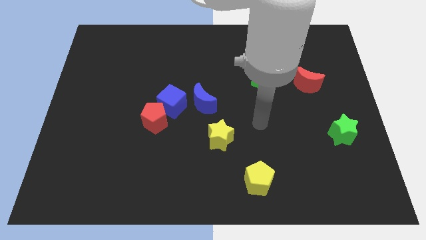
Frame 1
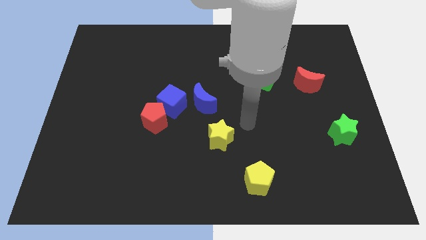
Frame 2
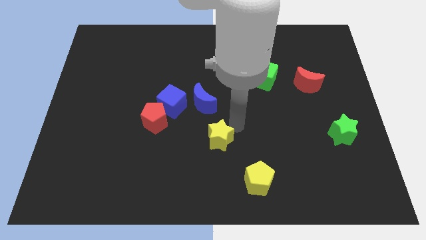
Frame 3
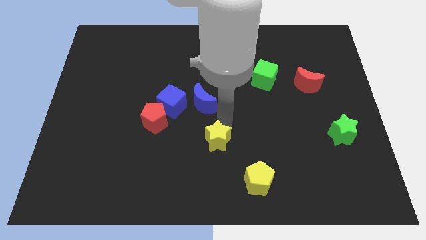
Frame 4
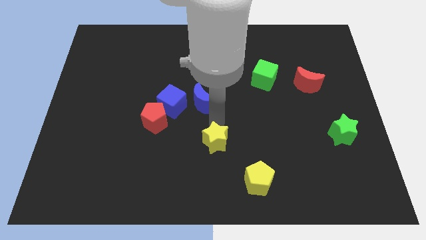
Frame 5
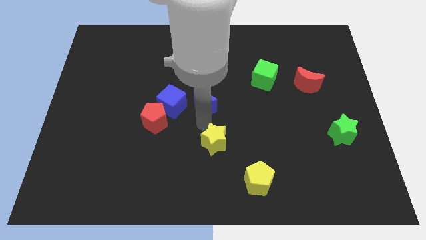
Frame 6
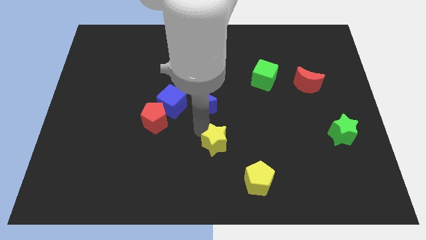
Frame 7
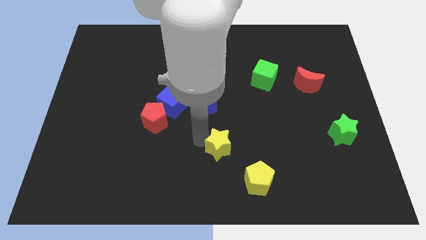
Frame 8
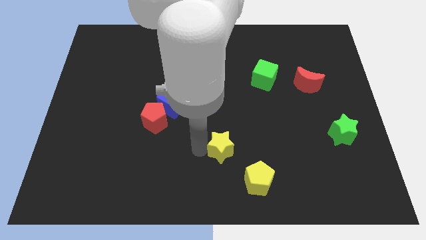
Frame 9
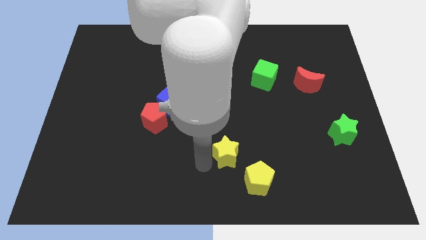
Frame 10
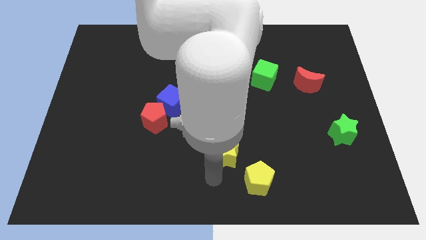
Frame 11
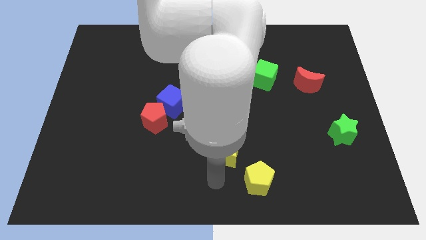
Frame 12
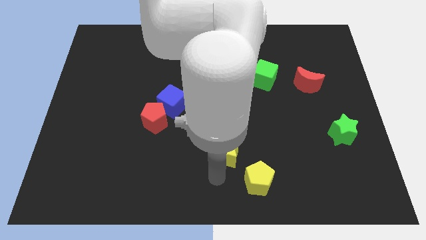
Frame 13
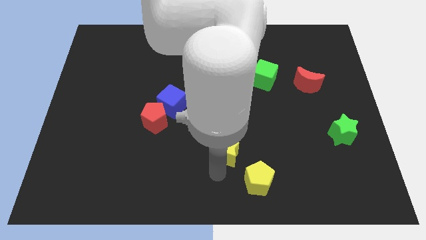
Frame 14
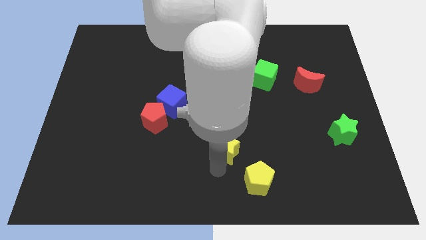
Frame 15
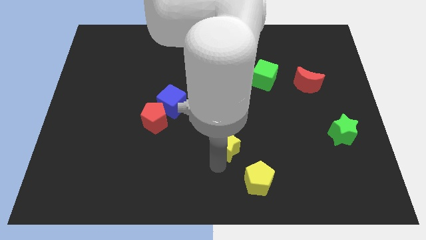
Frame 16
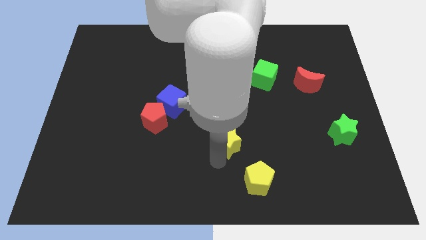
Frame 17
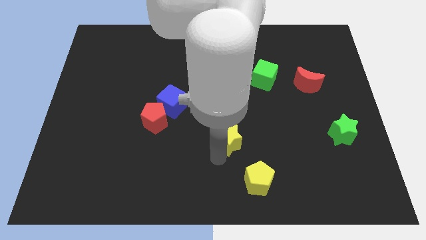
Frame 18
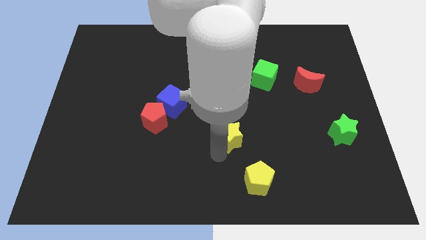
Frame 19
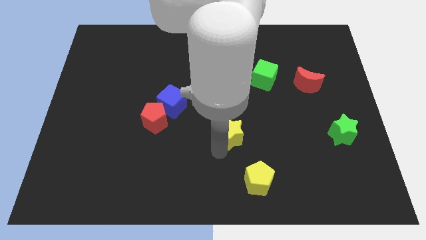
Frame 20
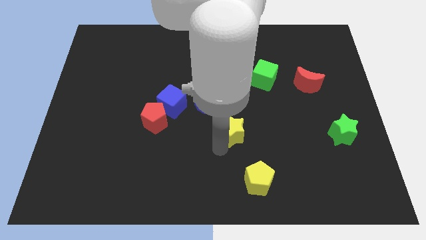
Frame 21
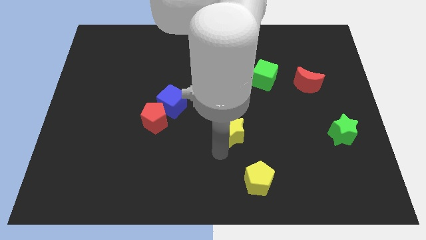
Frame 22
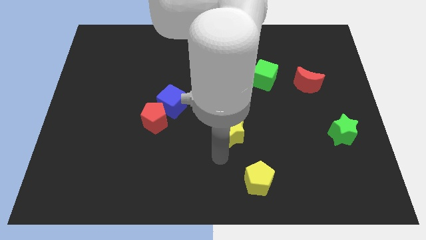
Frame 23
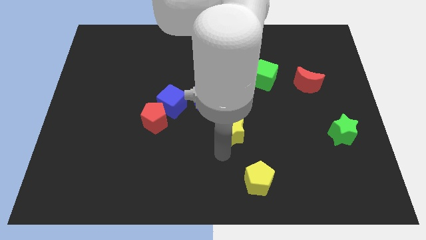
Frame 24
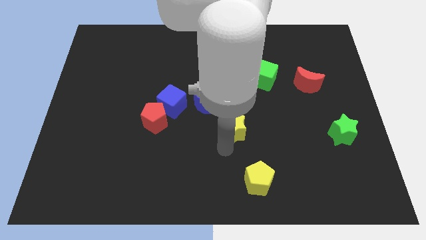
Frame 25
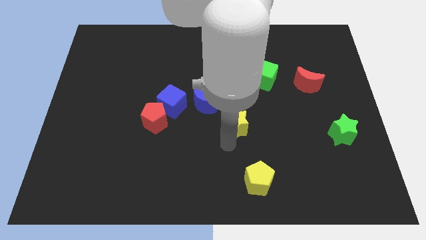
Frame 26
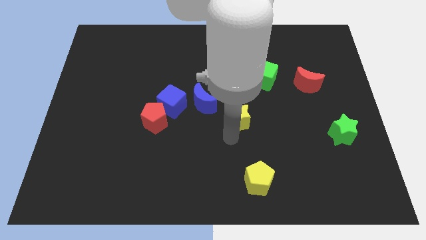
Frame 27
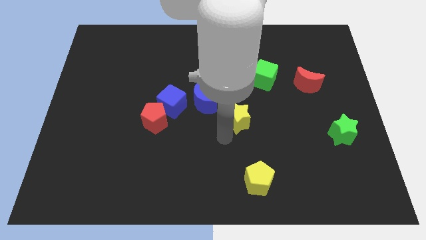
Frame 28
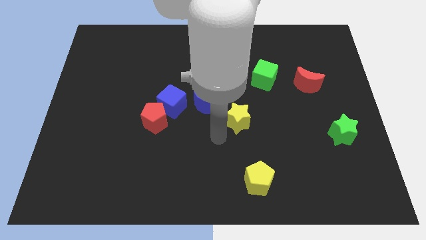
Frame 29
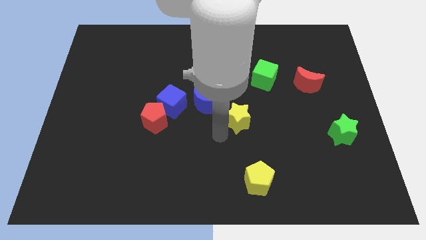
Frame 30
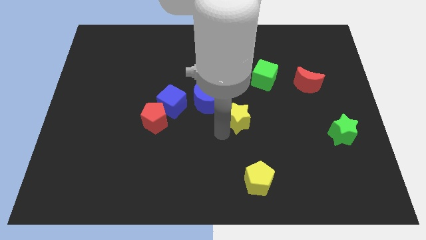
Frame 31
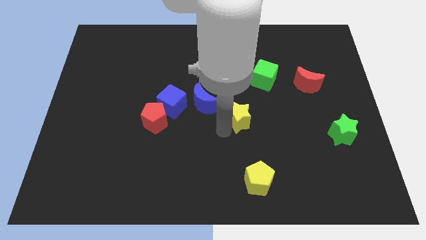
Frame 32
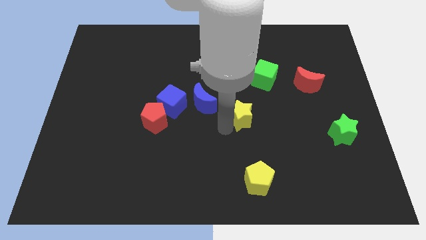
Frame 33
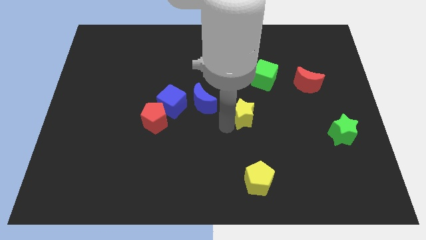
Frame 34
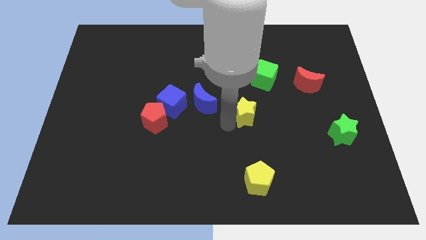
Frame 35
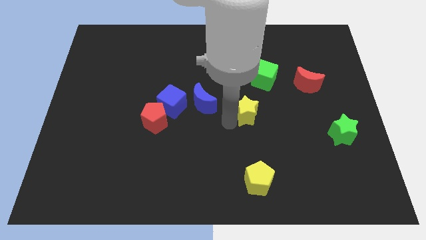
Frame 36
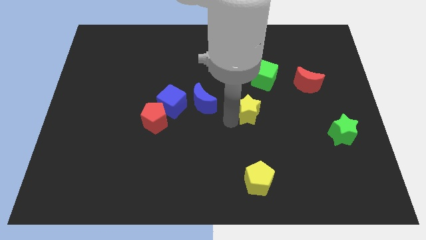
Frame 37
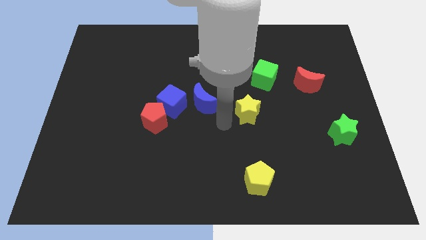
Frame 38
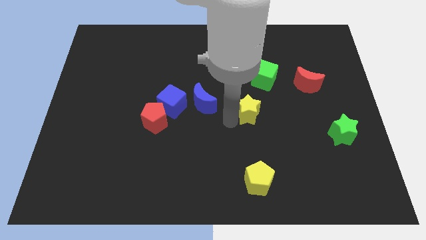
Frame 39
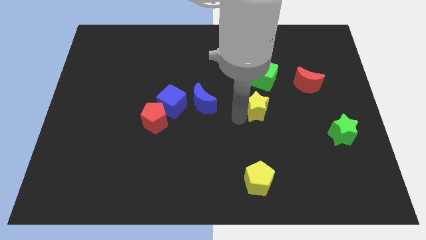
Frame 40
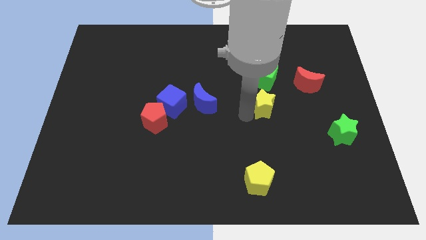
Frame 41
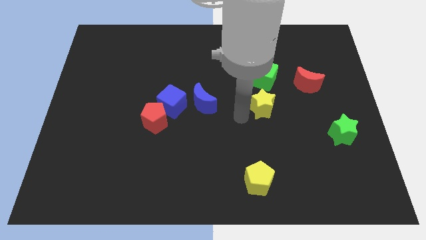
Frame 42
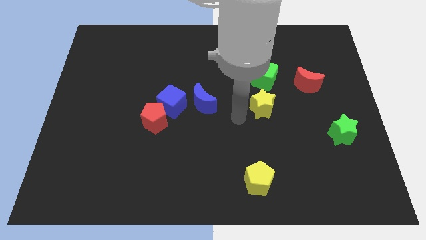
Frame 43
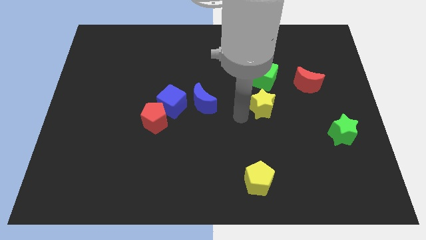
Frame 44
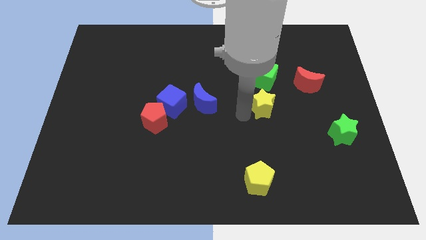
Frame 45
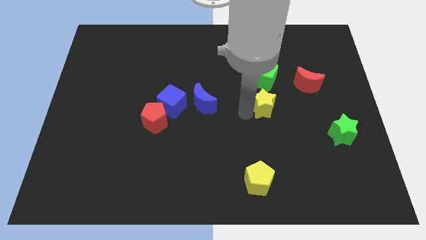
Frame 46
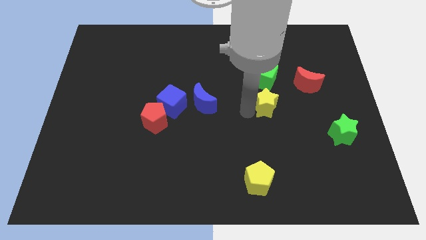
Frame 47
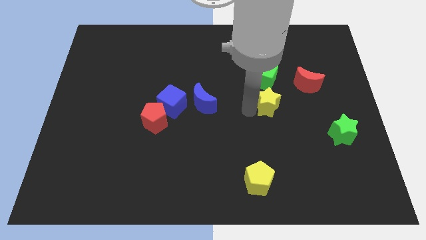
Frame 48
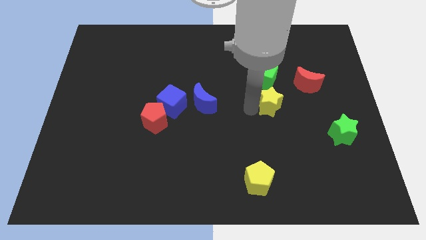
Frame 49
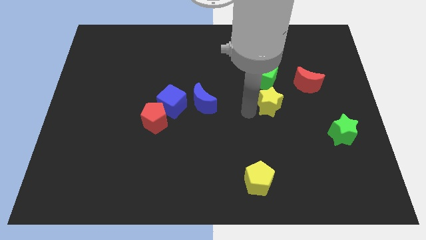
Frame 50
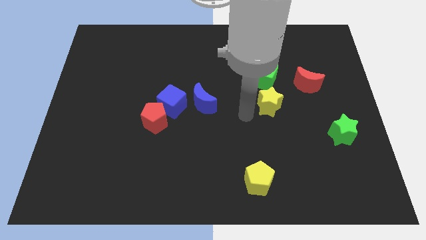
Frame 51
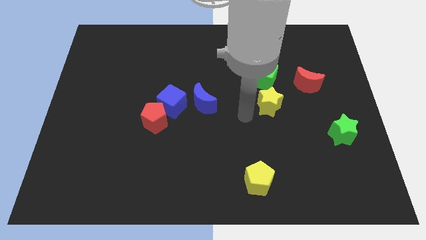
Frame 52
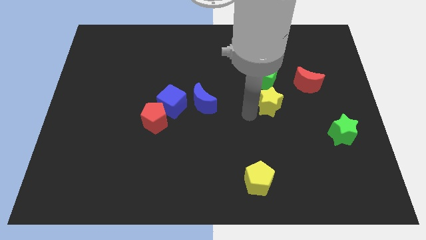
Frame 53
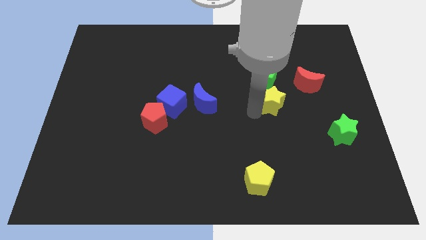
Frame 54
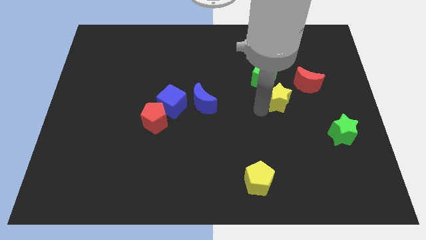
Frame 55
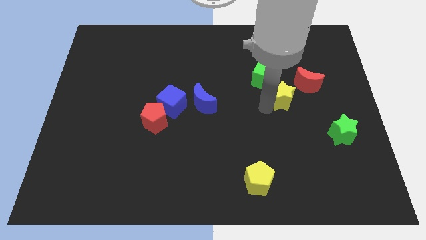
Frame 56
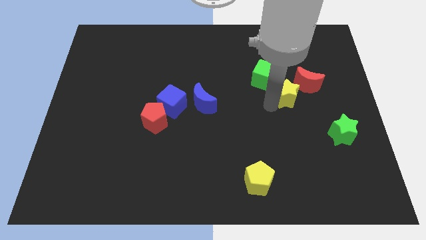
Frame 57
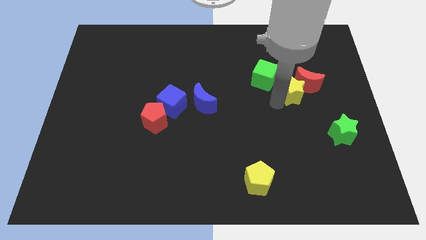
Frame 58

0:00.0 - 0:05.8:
put the yellow star towards the red moon

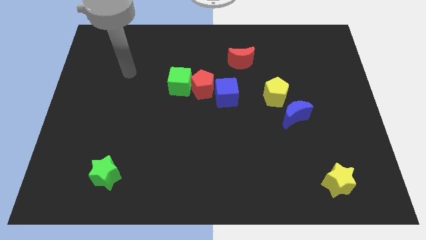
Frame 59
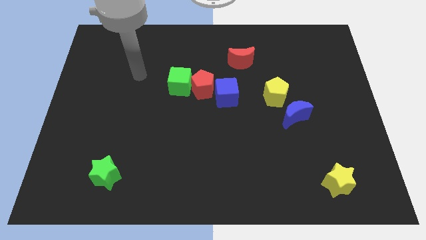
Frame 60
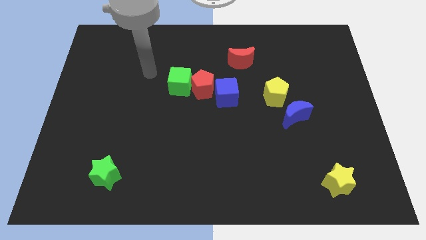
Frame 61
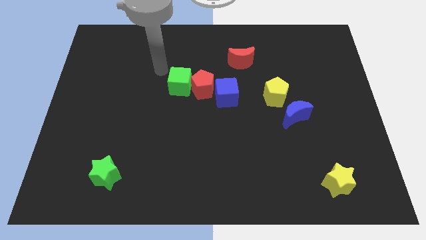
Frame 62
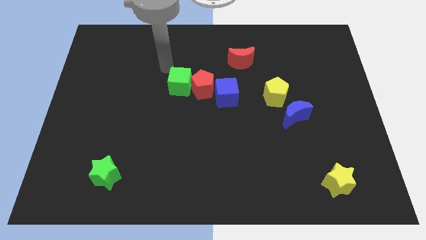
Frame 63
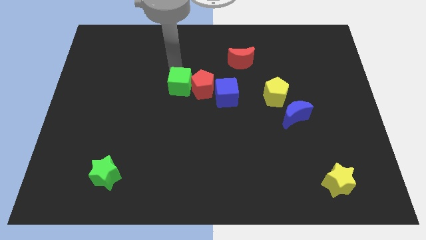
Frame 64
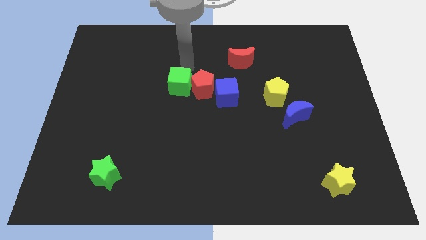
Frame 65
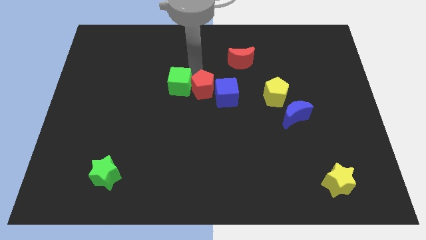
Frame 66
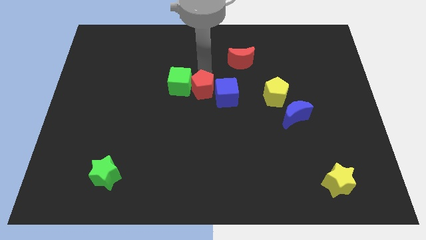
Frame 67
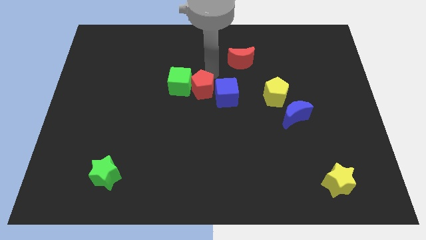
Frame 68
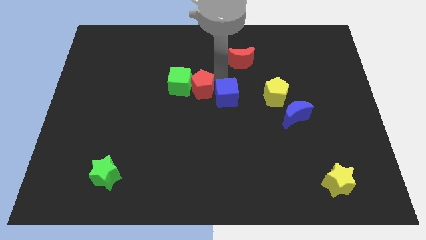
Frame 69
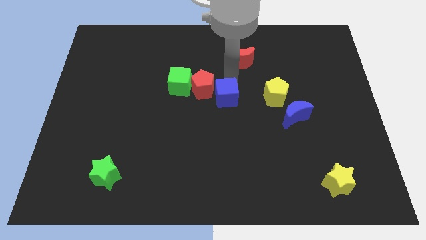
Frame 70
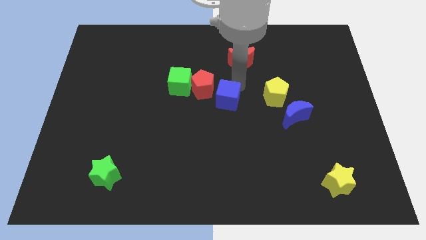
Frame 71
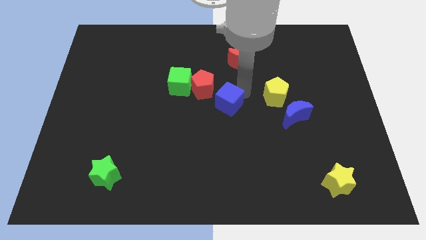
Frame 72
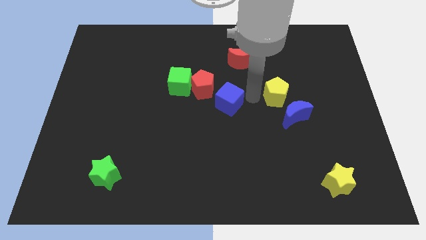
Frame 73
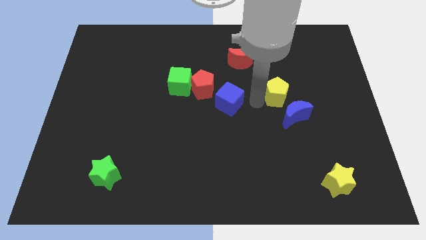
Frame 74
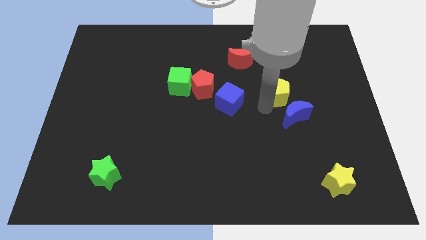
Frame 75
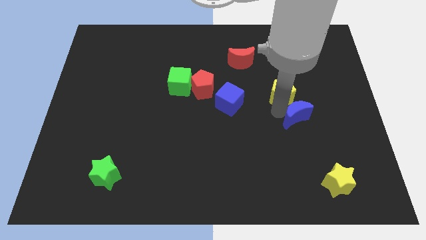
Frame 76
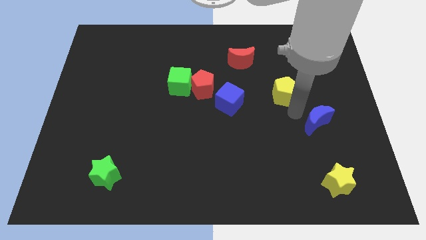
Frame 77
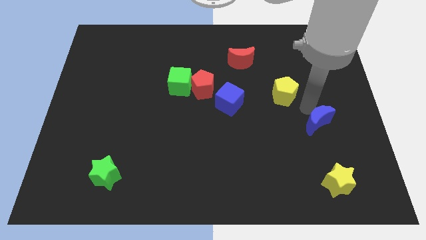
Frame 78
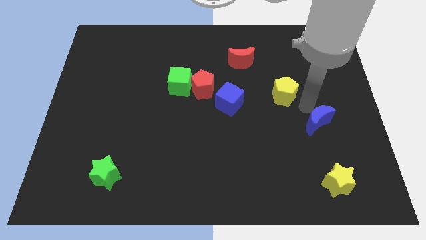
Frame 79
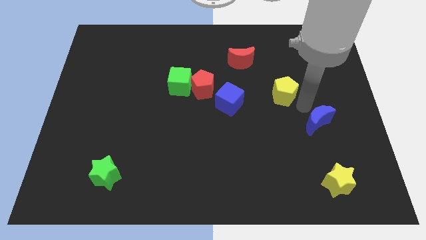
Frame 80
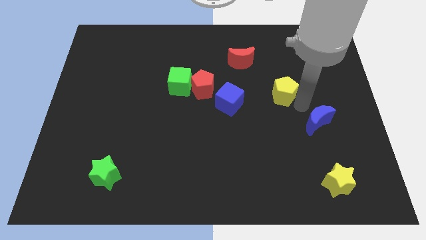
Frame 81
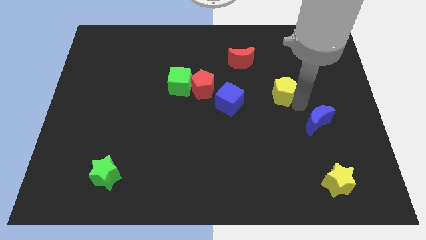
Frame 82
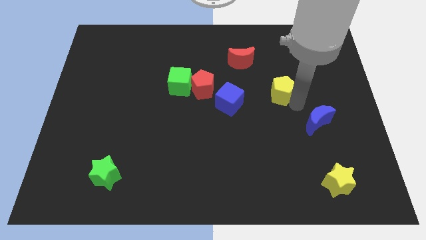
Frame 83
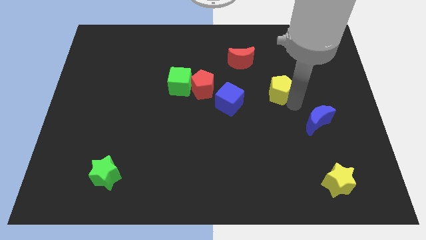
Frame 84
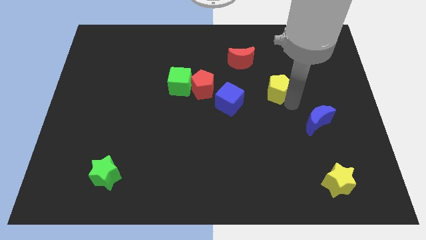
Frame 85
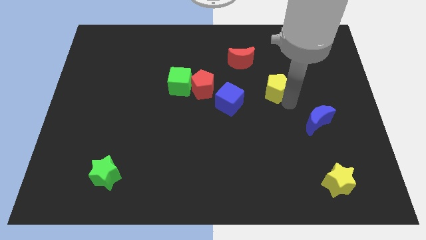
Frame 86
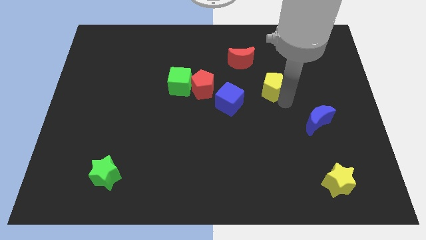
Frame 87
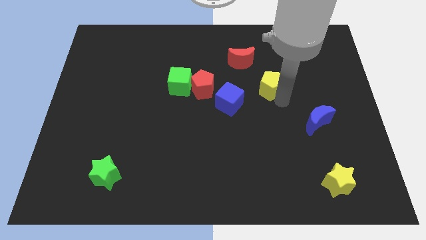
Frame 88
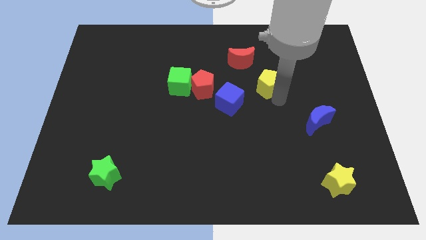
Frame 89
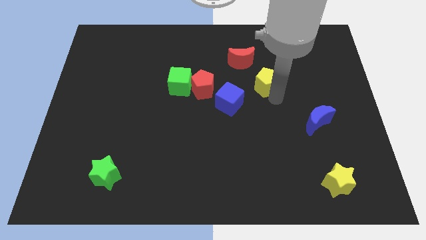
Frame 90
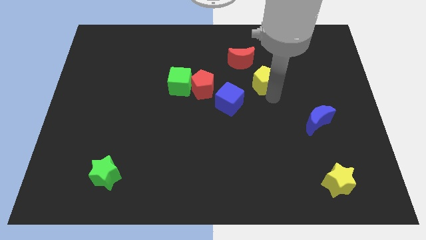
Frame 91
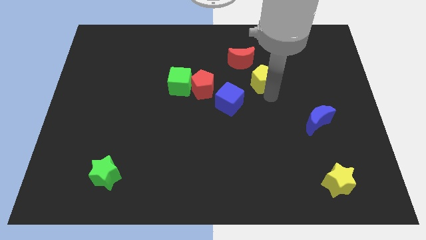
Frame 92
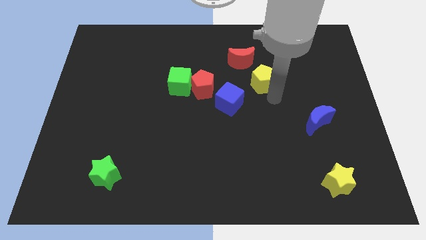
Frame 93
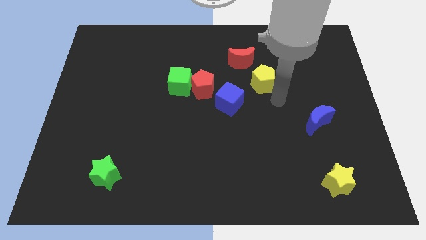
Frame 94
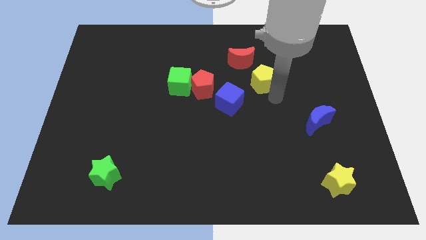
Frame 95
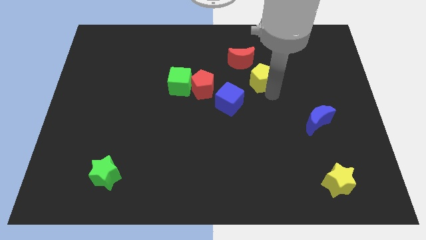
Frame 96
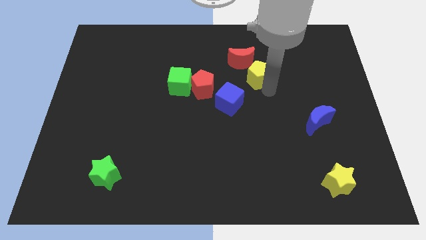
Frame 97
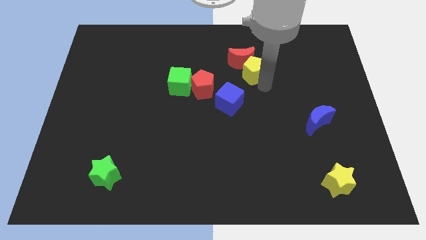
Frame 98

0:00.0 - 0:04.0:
put the yellow pentagon next to the red moon
